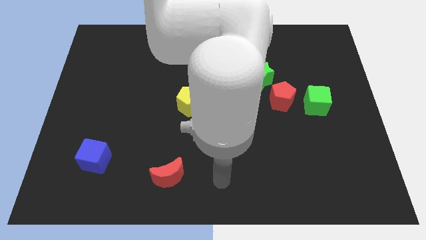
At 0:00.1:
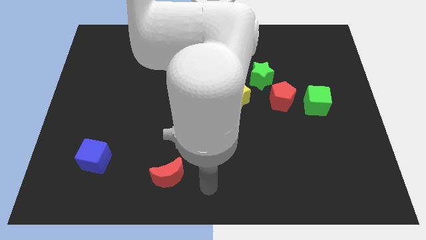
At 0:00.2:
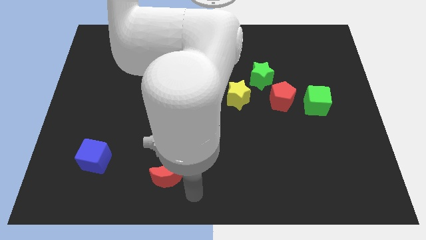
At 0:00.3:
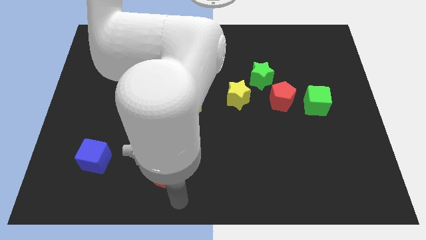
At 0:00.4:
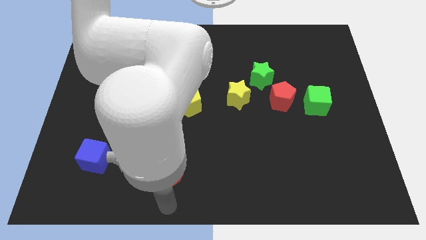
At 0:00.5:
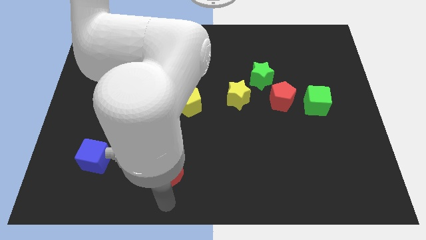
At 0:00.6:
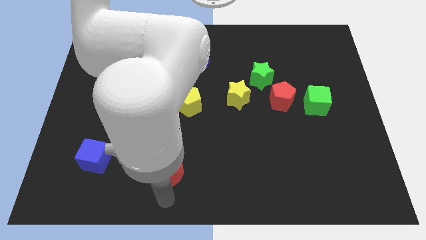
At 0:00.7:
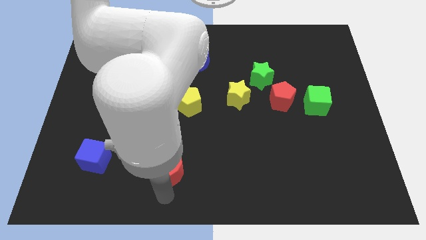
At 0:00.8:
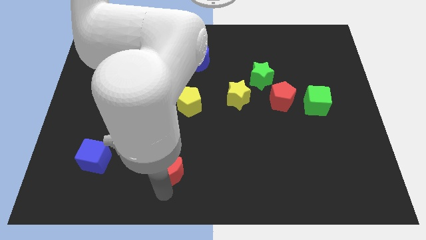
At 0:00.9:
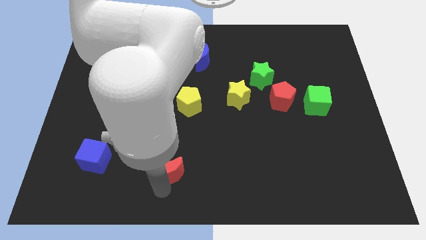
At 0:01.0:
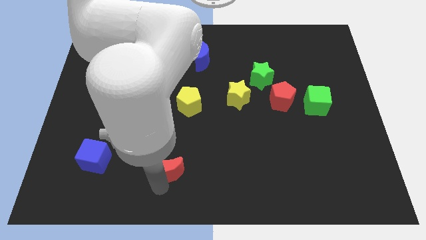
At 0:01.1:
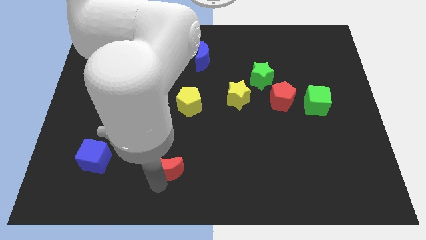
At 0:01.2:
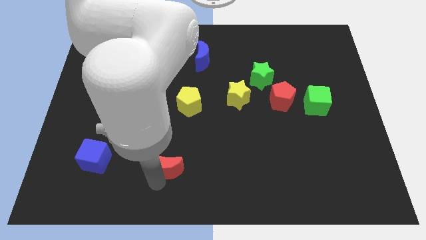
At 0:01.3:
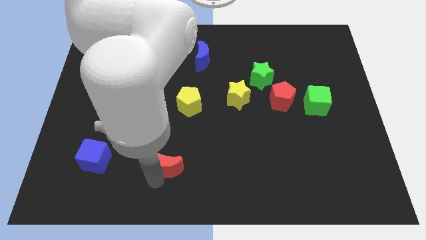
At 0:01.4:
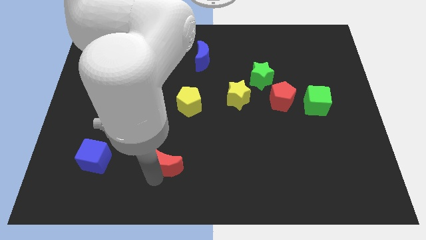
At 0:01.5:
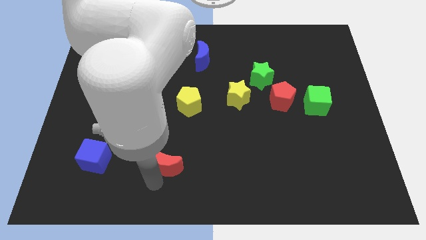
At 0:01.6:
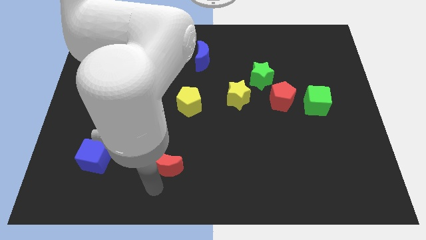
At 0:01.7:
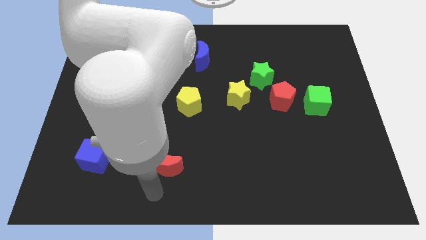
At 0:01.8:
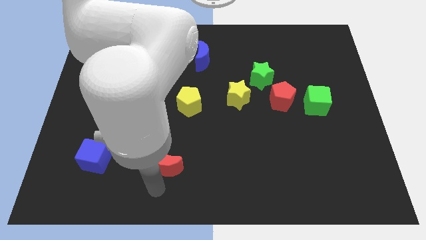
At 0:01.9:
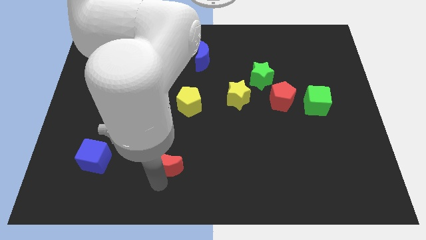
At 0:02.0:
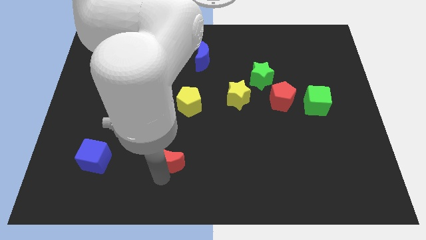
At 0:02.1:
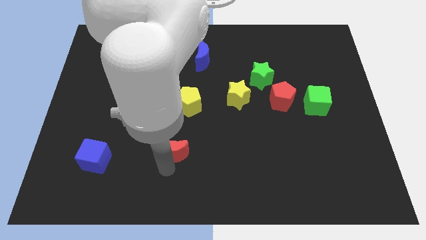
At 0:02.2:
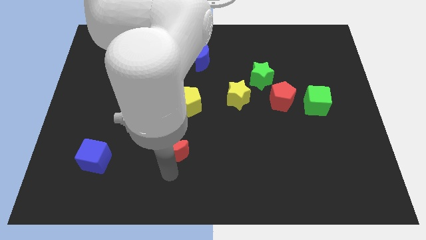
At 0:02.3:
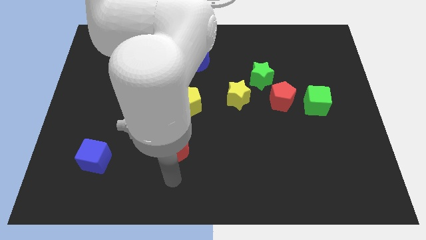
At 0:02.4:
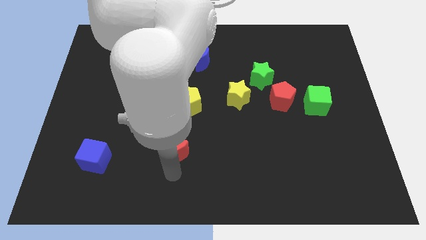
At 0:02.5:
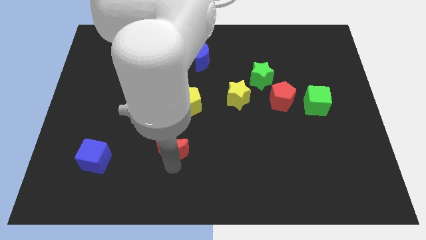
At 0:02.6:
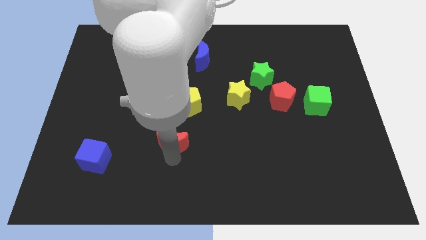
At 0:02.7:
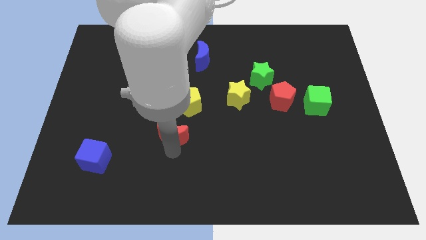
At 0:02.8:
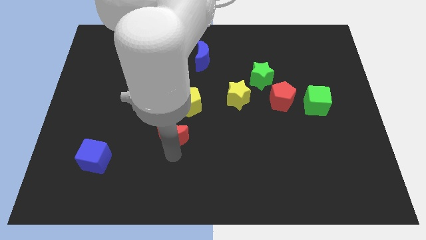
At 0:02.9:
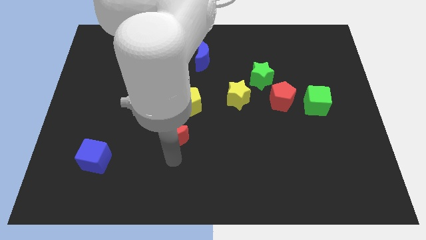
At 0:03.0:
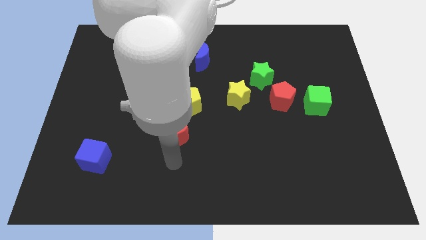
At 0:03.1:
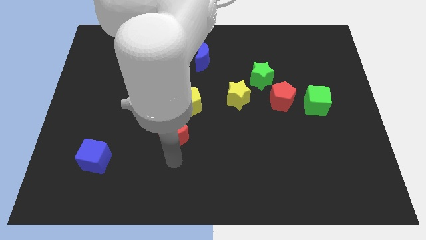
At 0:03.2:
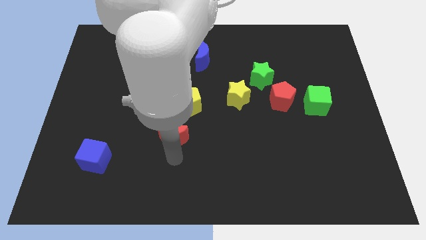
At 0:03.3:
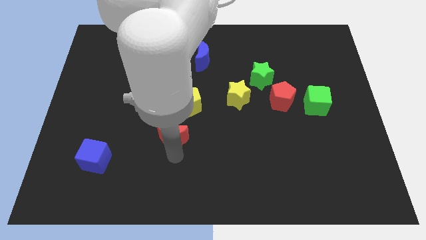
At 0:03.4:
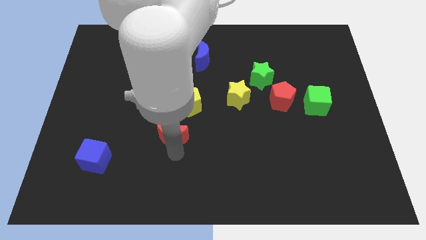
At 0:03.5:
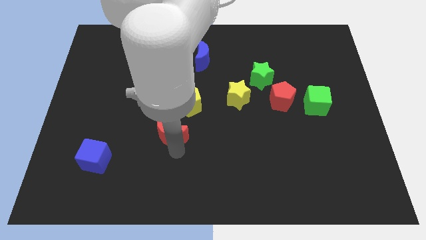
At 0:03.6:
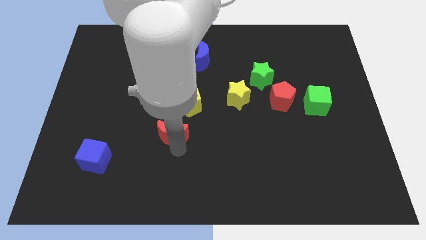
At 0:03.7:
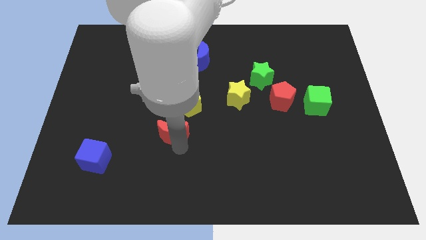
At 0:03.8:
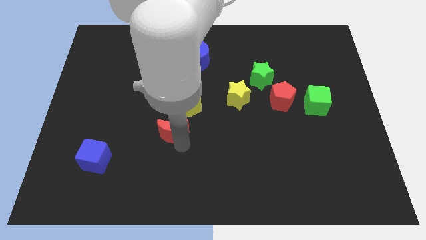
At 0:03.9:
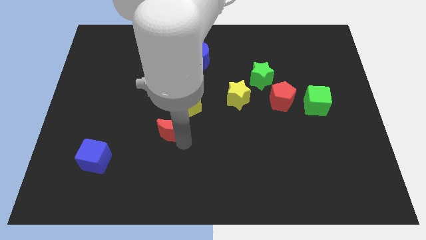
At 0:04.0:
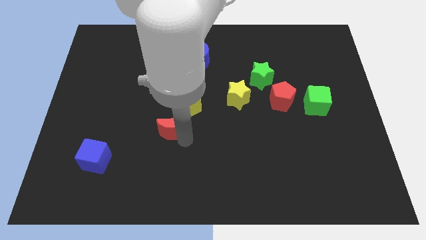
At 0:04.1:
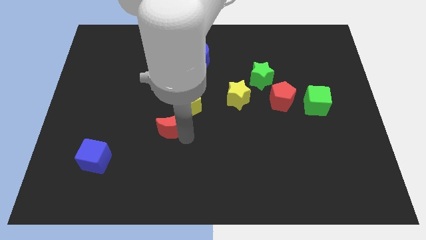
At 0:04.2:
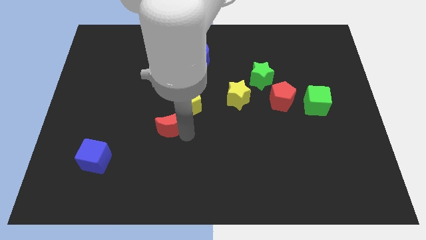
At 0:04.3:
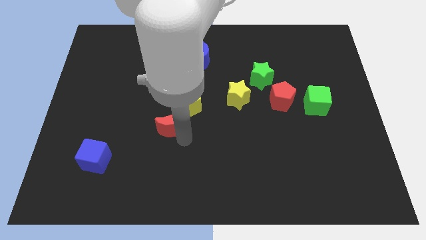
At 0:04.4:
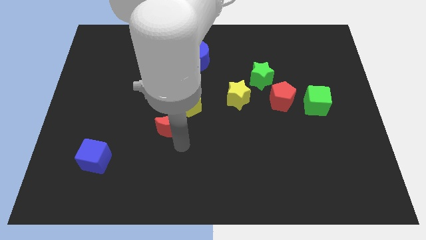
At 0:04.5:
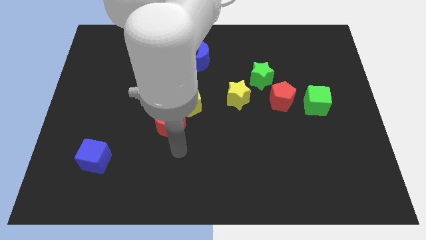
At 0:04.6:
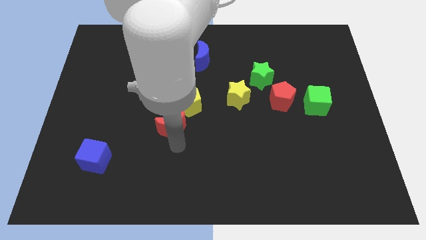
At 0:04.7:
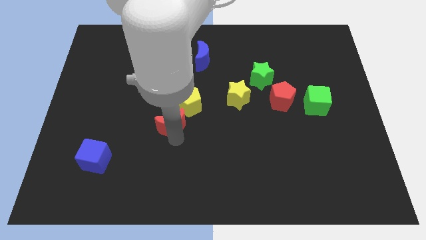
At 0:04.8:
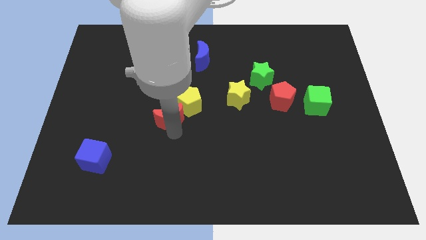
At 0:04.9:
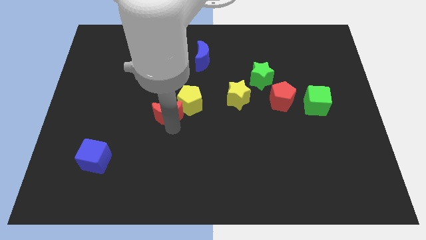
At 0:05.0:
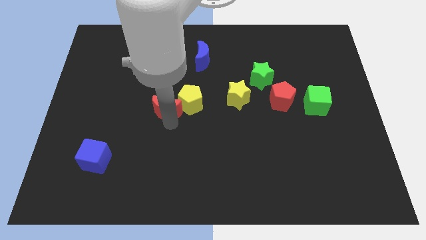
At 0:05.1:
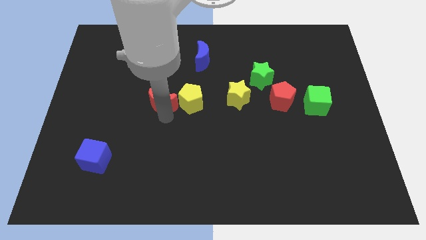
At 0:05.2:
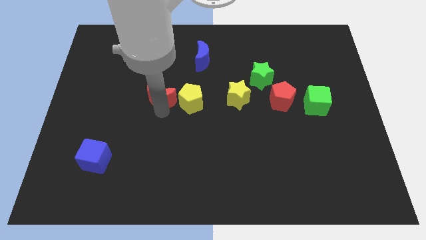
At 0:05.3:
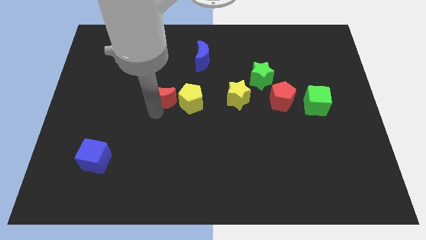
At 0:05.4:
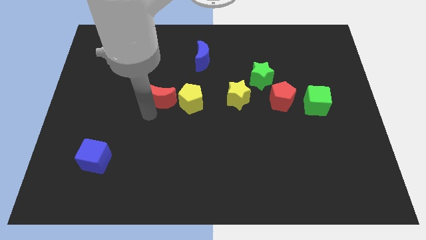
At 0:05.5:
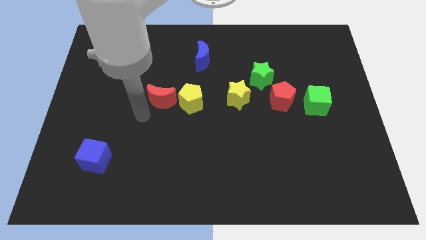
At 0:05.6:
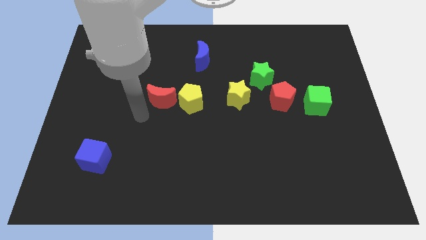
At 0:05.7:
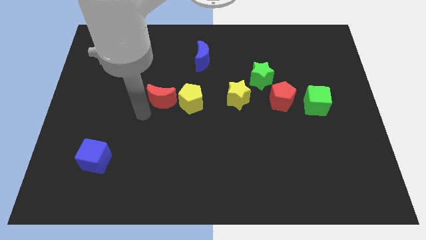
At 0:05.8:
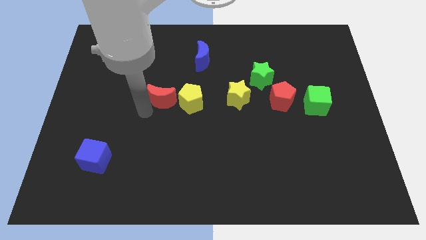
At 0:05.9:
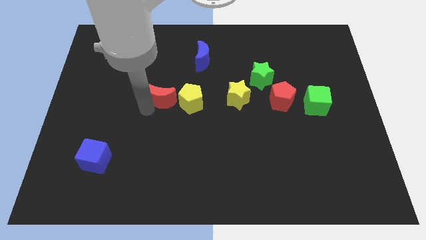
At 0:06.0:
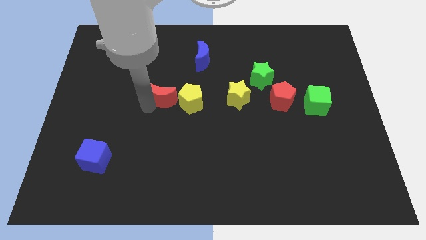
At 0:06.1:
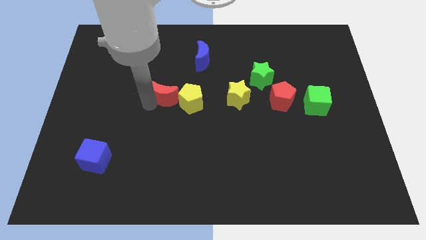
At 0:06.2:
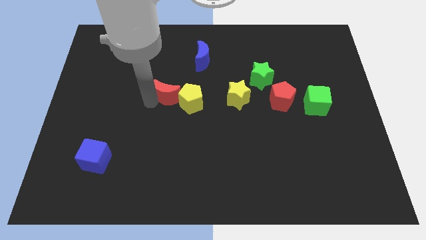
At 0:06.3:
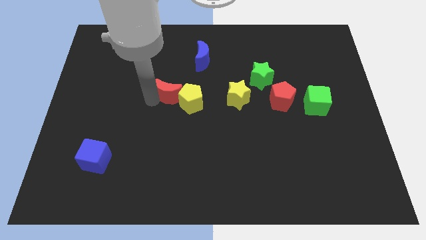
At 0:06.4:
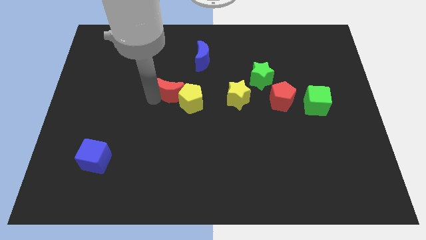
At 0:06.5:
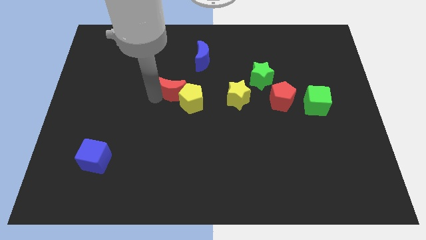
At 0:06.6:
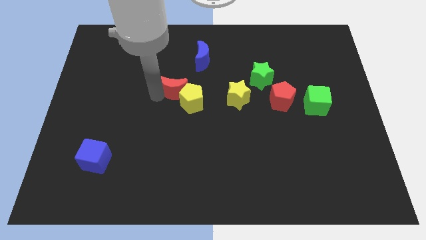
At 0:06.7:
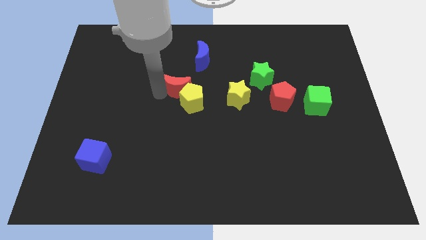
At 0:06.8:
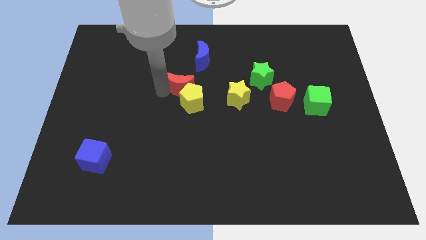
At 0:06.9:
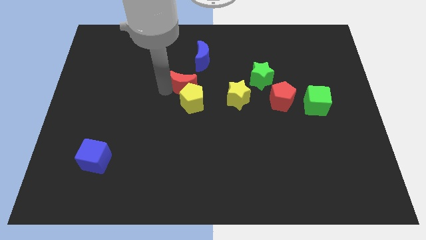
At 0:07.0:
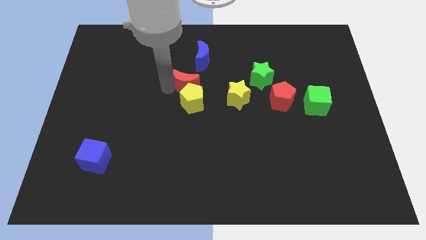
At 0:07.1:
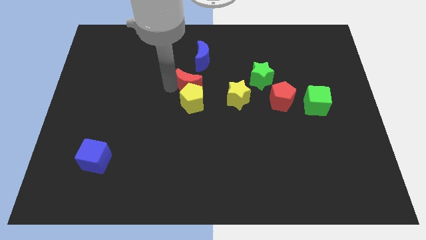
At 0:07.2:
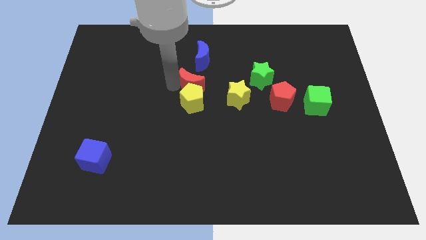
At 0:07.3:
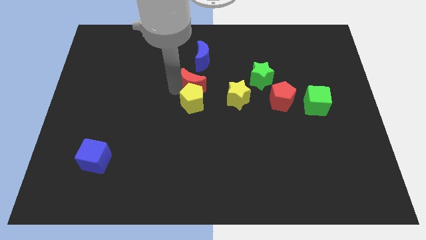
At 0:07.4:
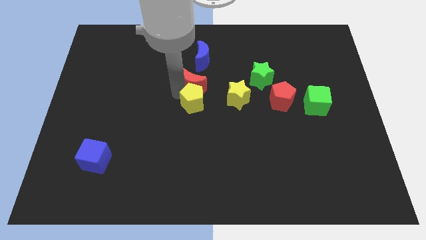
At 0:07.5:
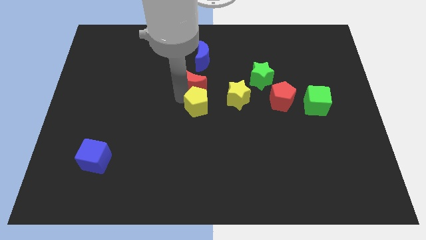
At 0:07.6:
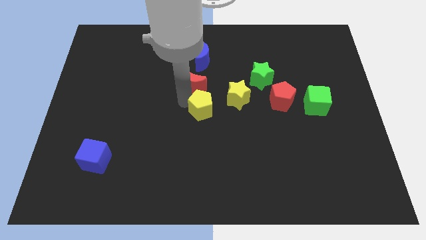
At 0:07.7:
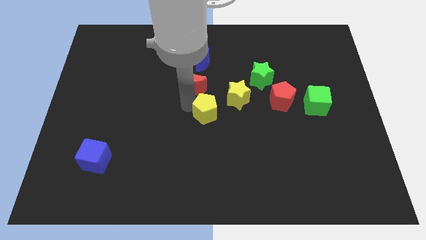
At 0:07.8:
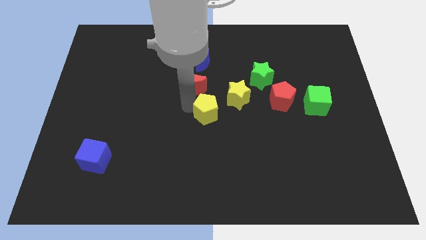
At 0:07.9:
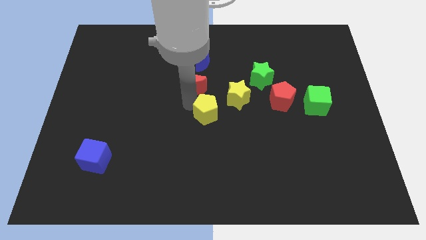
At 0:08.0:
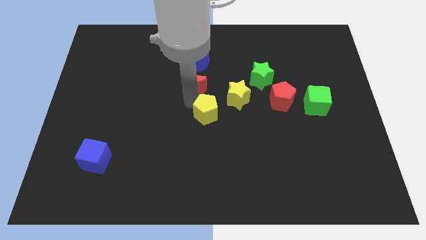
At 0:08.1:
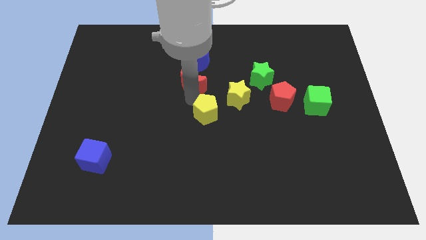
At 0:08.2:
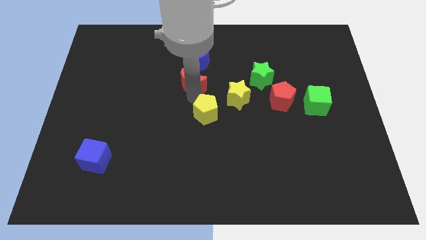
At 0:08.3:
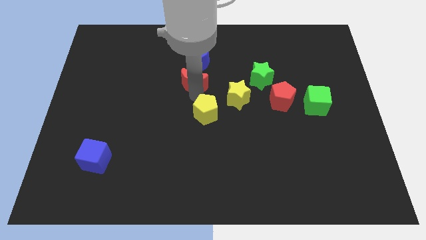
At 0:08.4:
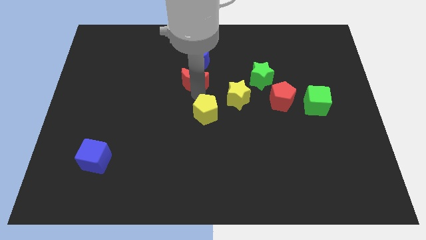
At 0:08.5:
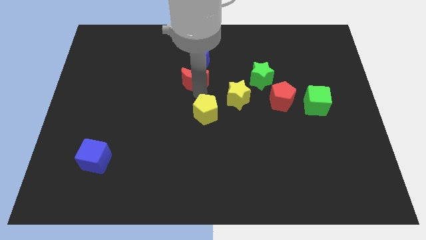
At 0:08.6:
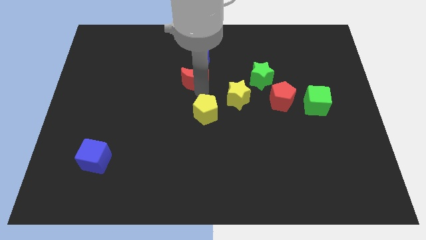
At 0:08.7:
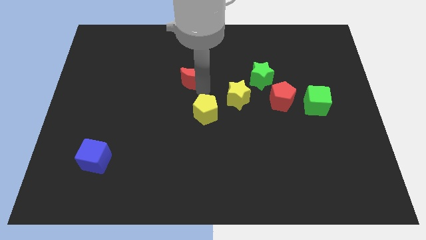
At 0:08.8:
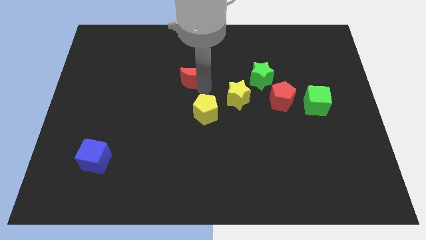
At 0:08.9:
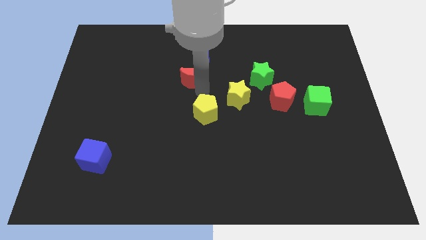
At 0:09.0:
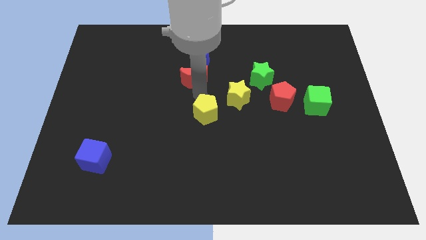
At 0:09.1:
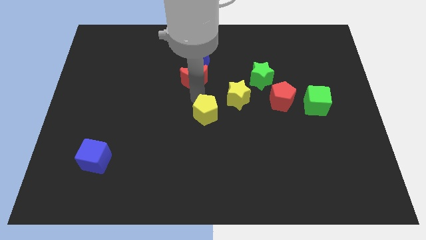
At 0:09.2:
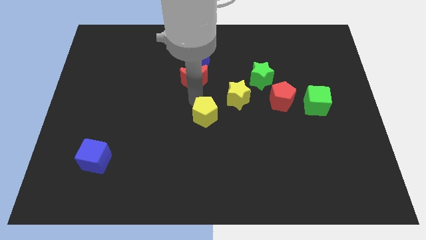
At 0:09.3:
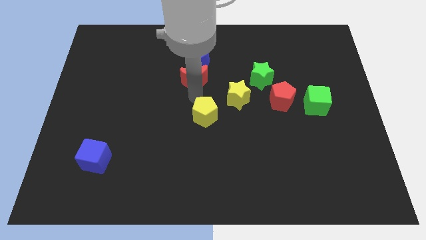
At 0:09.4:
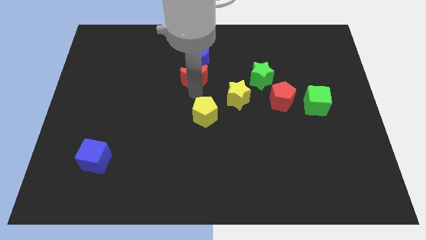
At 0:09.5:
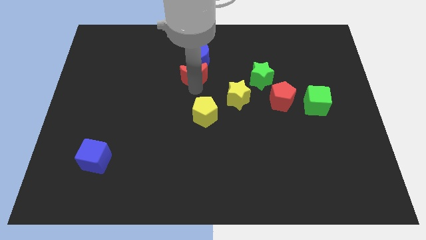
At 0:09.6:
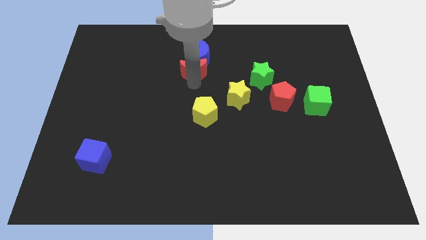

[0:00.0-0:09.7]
move the red moon next to the blue moon
